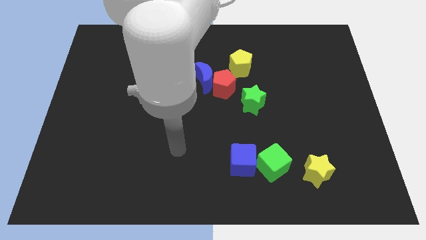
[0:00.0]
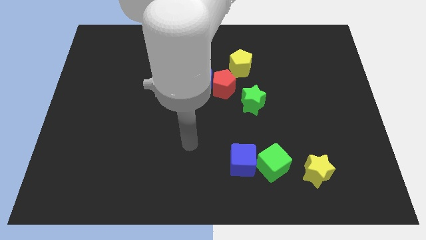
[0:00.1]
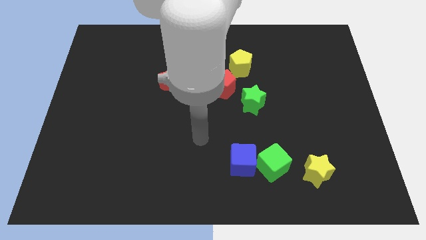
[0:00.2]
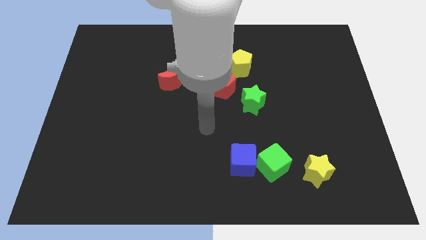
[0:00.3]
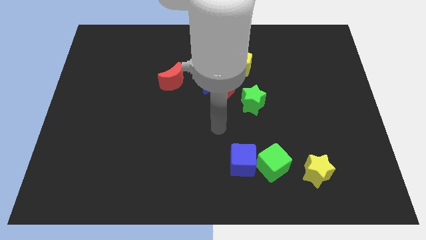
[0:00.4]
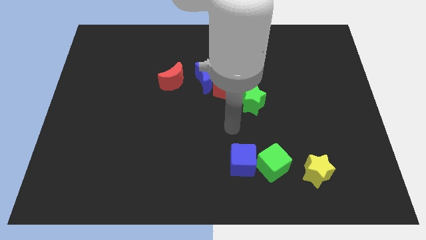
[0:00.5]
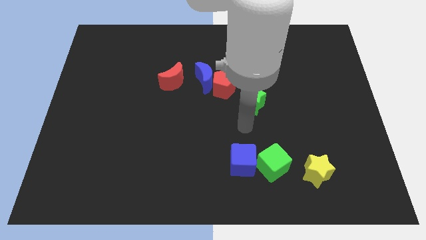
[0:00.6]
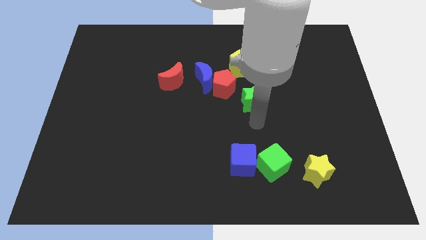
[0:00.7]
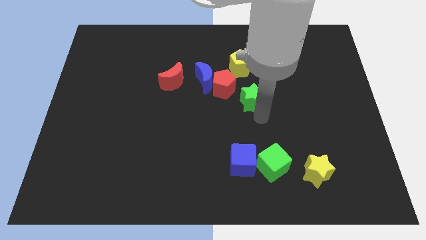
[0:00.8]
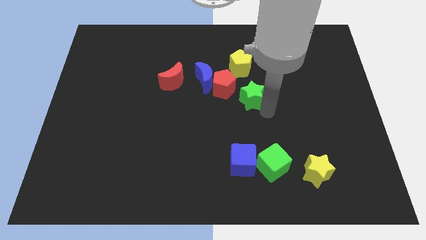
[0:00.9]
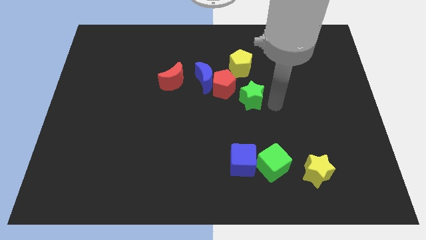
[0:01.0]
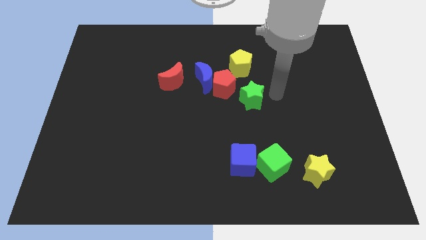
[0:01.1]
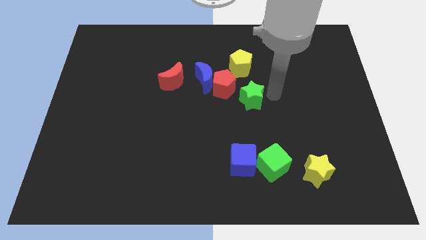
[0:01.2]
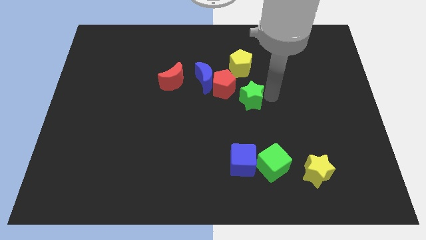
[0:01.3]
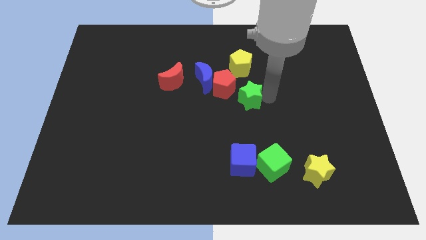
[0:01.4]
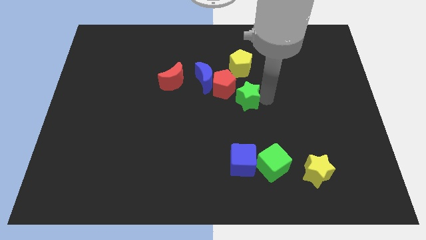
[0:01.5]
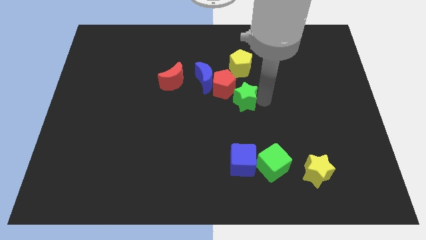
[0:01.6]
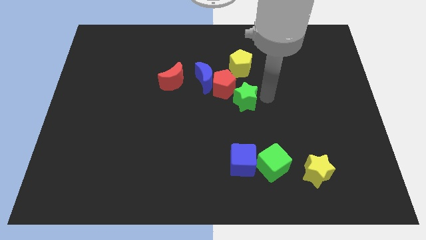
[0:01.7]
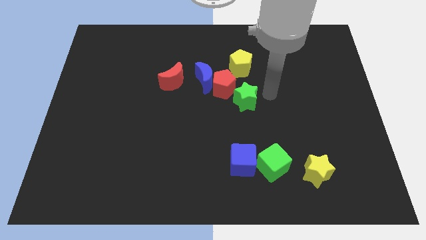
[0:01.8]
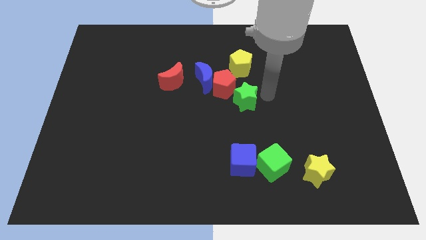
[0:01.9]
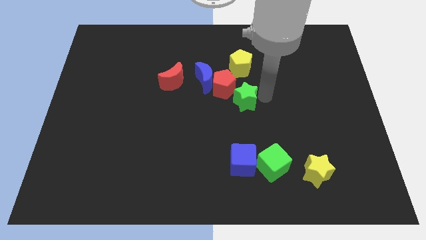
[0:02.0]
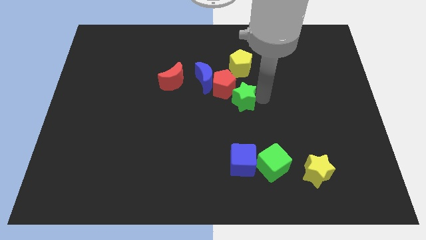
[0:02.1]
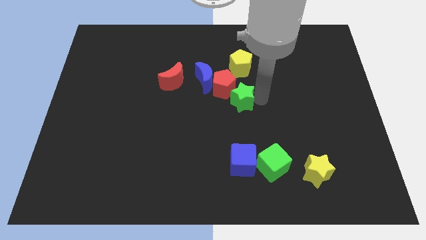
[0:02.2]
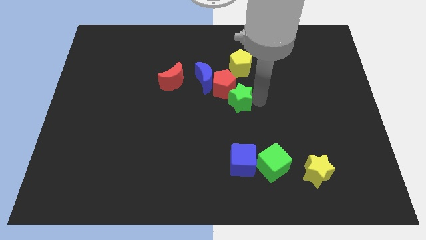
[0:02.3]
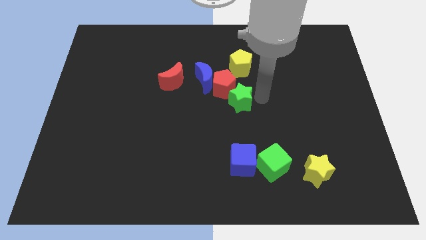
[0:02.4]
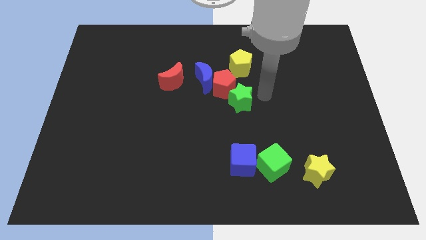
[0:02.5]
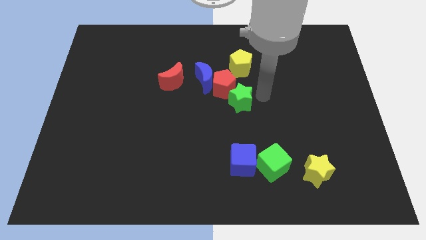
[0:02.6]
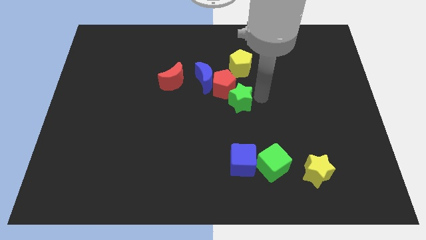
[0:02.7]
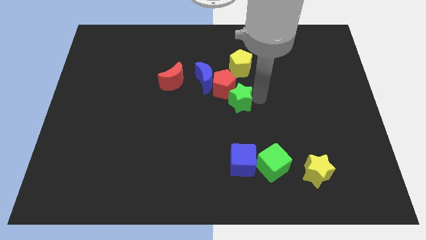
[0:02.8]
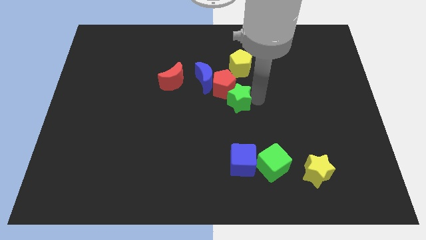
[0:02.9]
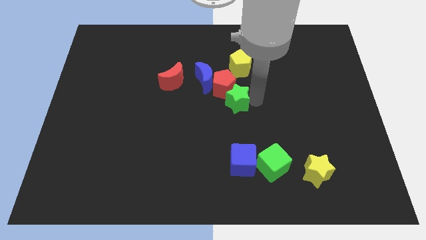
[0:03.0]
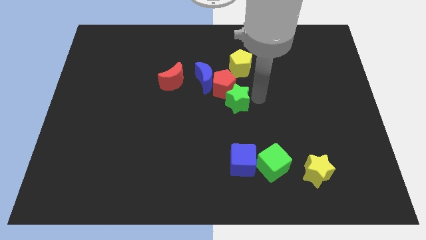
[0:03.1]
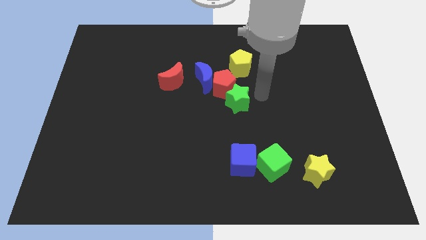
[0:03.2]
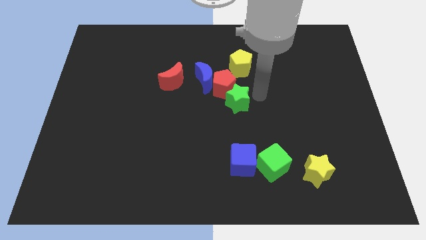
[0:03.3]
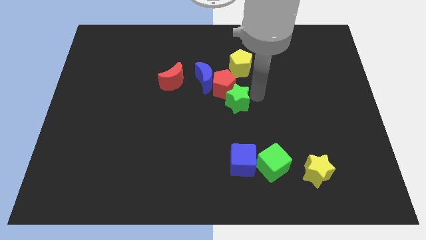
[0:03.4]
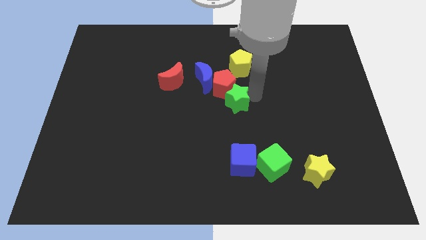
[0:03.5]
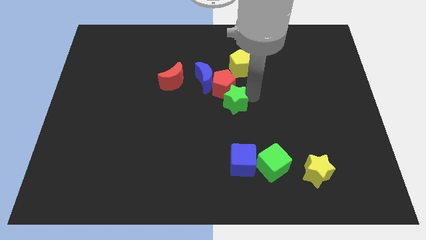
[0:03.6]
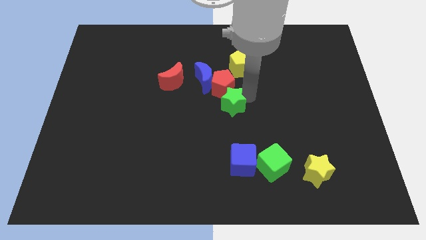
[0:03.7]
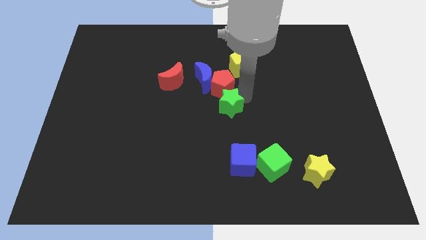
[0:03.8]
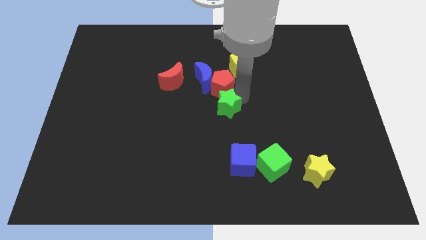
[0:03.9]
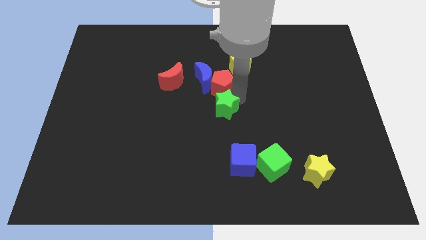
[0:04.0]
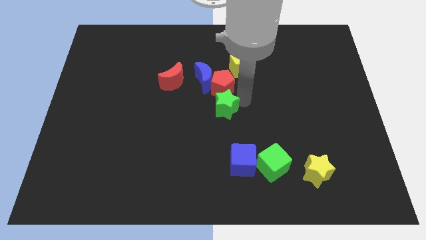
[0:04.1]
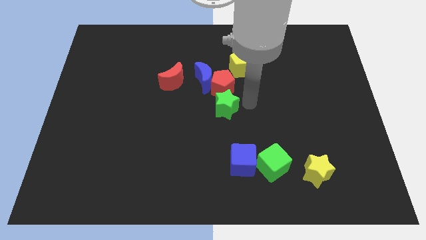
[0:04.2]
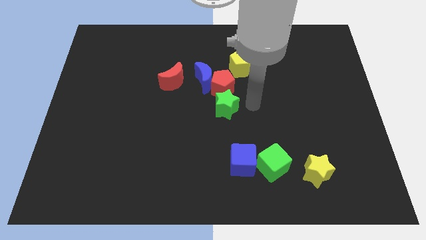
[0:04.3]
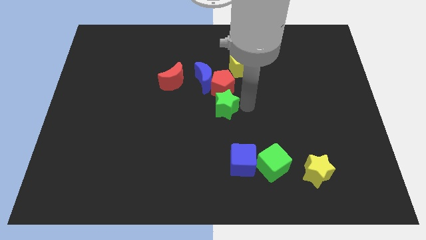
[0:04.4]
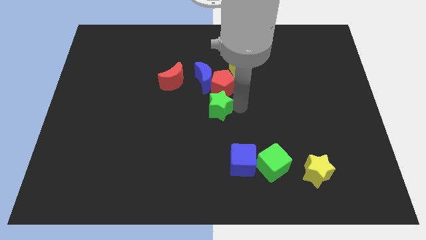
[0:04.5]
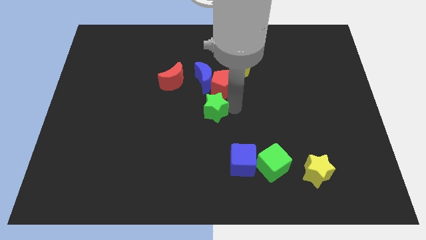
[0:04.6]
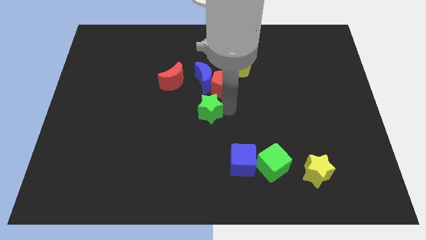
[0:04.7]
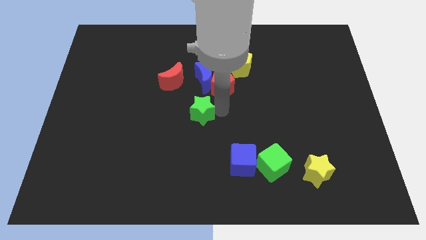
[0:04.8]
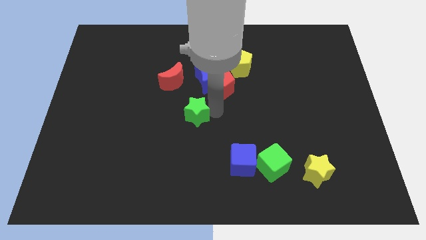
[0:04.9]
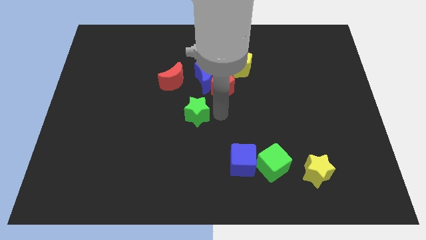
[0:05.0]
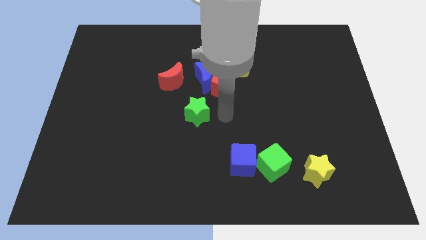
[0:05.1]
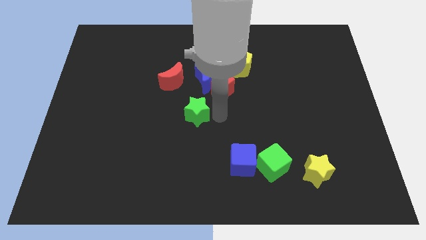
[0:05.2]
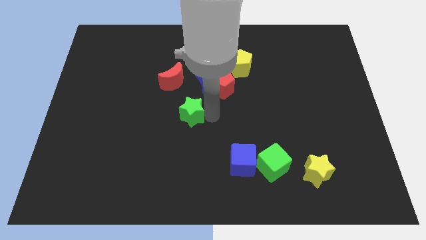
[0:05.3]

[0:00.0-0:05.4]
put the green star to the bottom side of the red moon

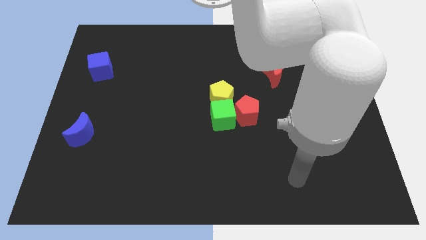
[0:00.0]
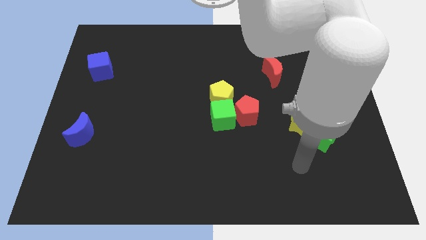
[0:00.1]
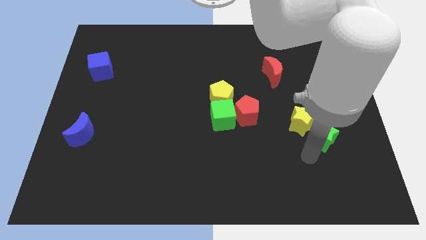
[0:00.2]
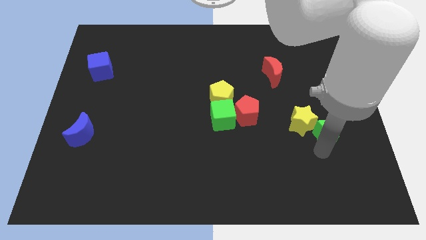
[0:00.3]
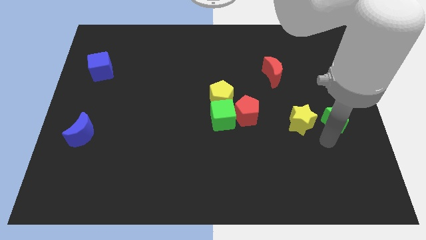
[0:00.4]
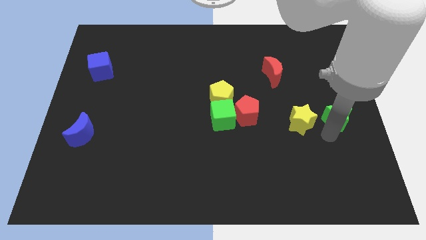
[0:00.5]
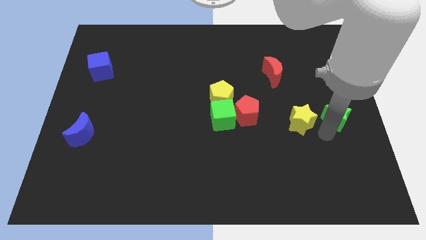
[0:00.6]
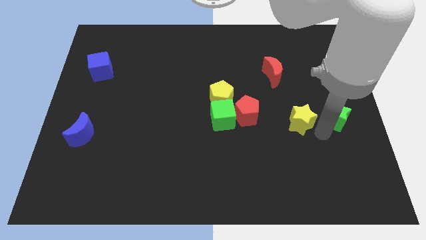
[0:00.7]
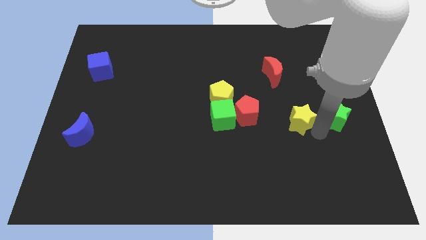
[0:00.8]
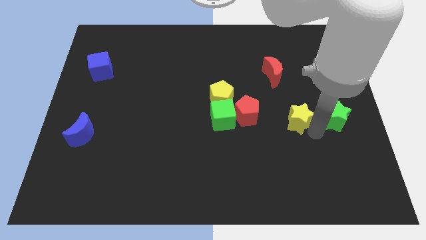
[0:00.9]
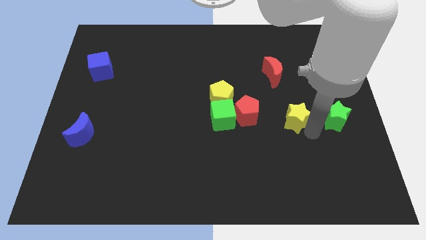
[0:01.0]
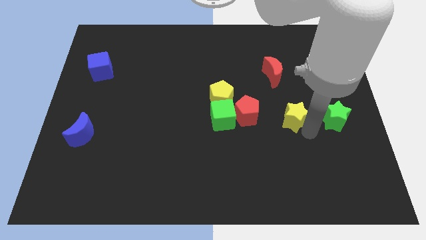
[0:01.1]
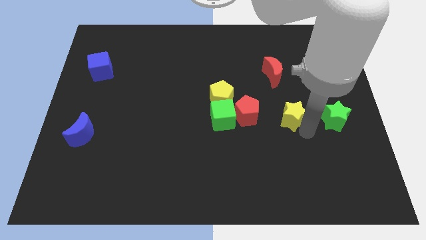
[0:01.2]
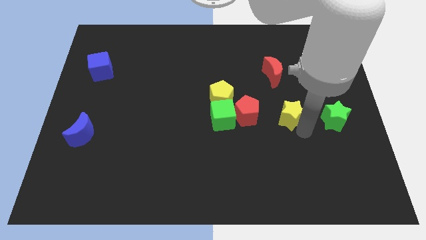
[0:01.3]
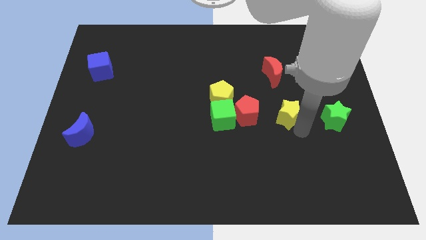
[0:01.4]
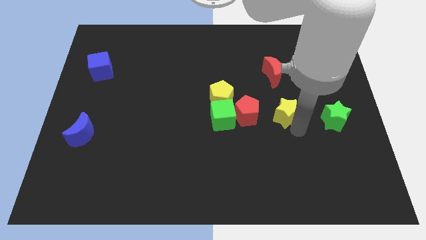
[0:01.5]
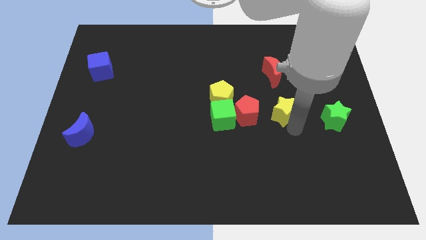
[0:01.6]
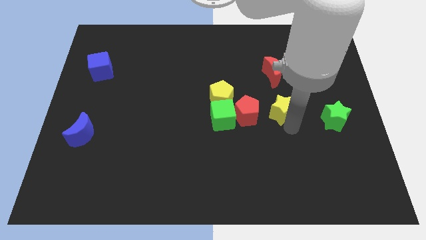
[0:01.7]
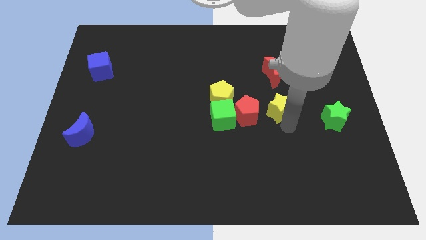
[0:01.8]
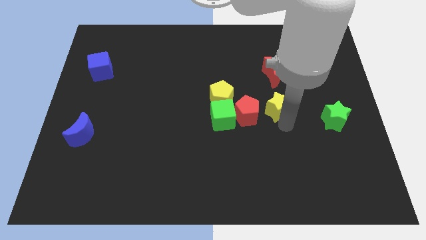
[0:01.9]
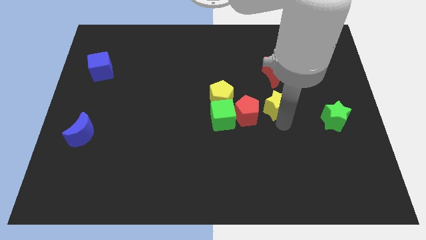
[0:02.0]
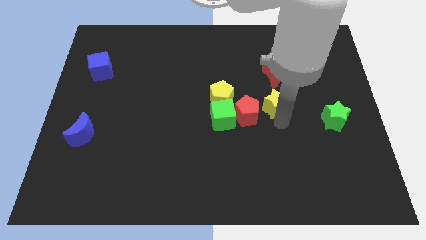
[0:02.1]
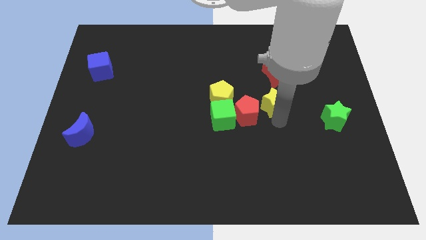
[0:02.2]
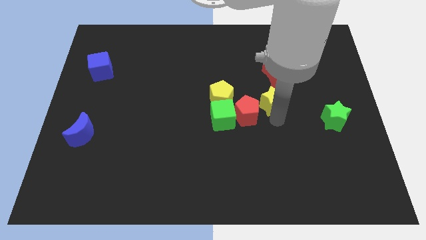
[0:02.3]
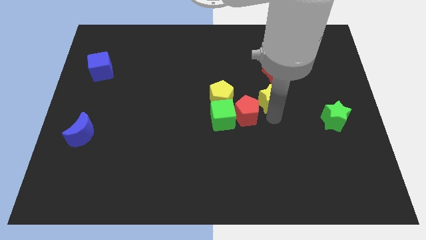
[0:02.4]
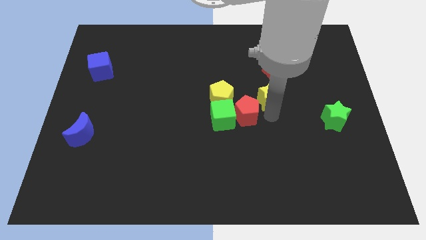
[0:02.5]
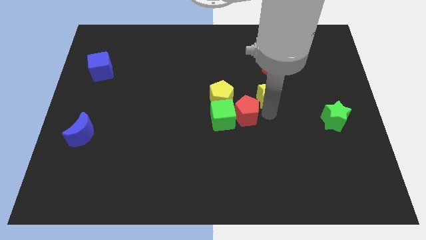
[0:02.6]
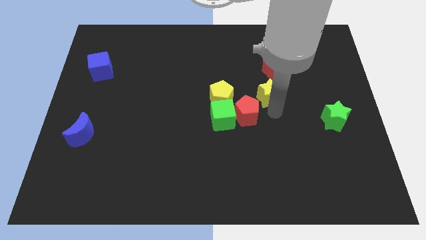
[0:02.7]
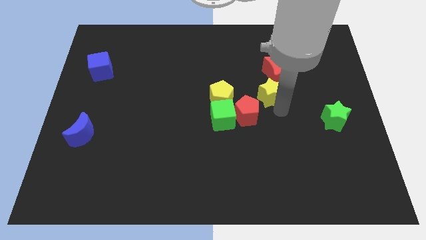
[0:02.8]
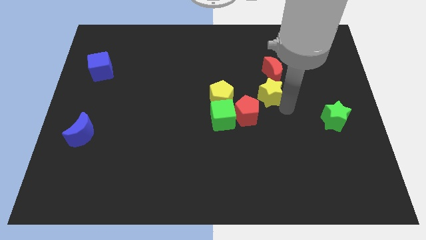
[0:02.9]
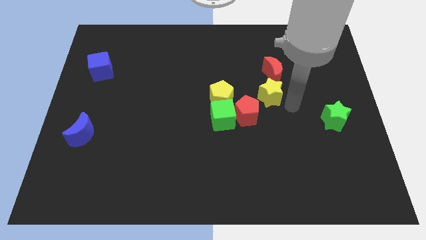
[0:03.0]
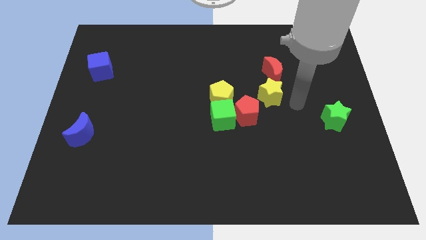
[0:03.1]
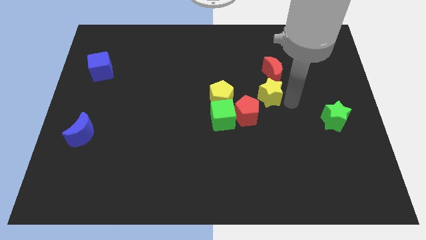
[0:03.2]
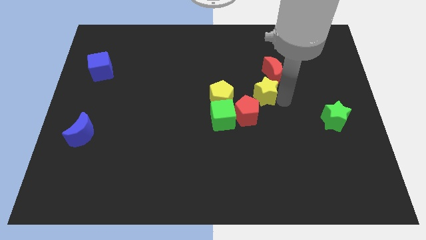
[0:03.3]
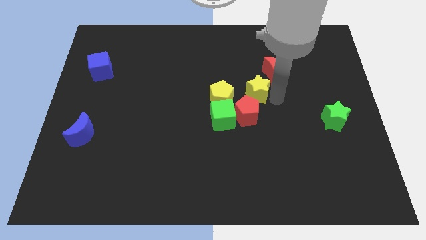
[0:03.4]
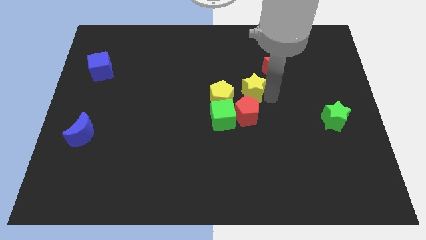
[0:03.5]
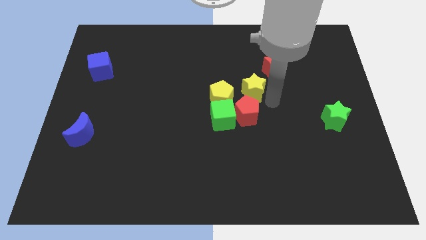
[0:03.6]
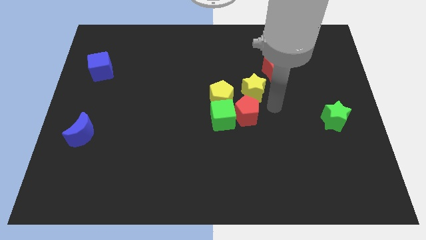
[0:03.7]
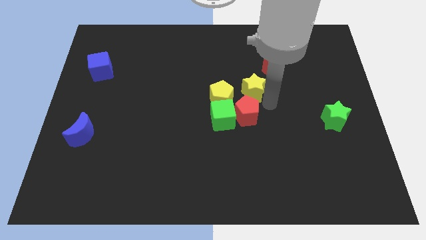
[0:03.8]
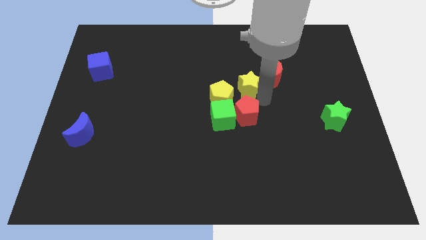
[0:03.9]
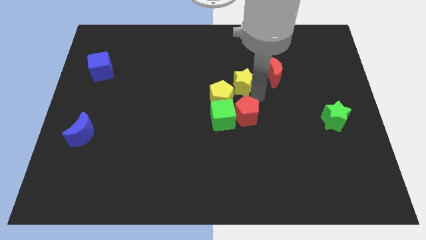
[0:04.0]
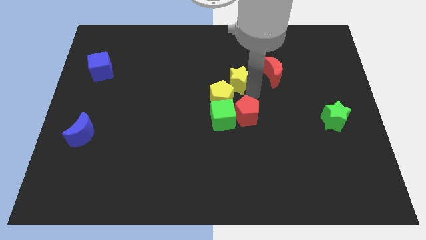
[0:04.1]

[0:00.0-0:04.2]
slide the yellow star to the top of the yellow pentagon
